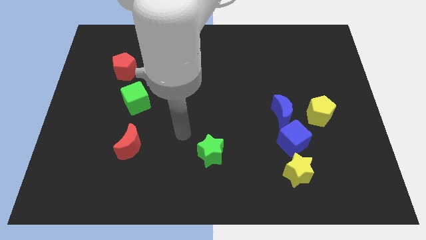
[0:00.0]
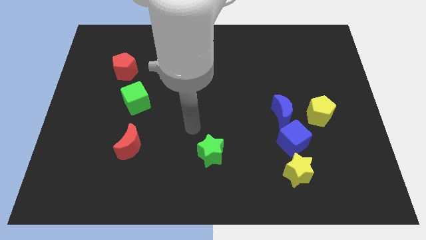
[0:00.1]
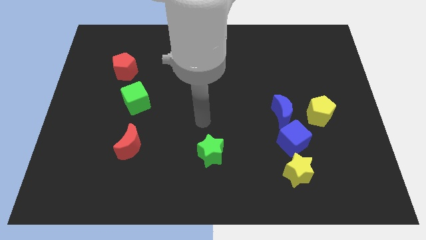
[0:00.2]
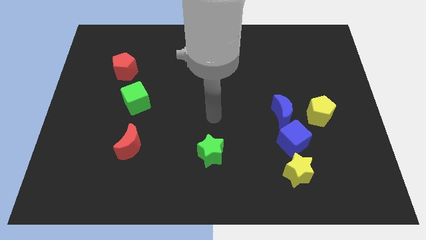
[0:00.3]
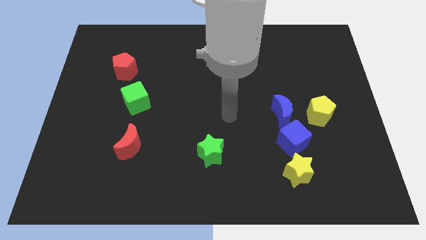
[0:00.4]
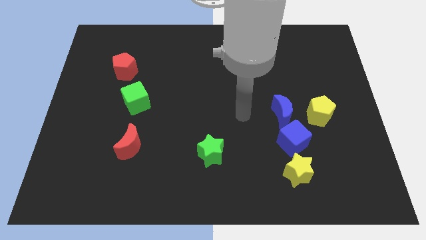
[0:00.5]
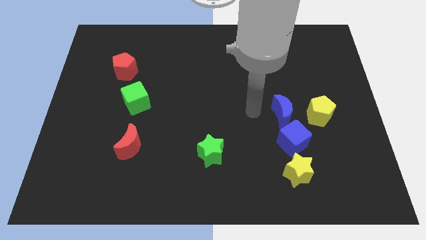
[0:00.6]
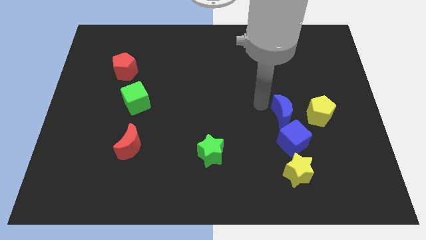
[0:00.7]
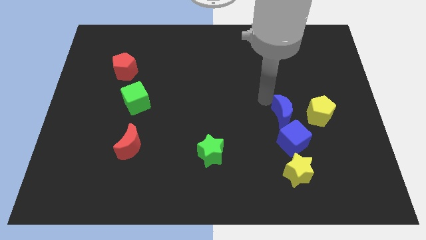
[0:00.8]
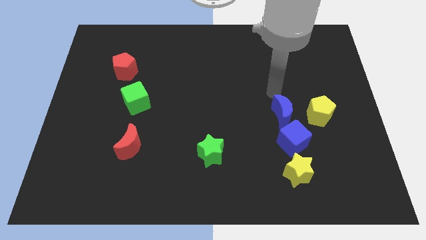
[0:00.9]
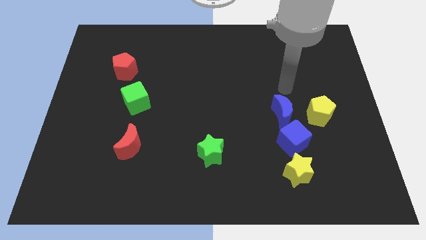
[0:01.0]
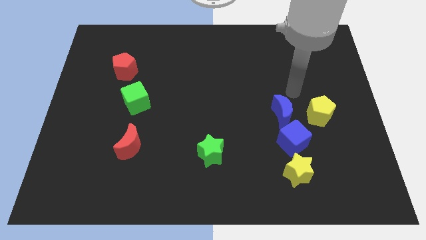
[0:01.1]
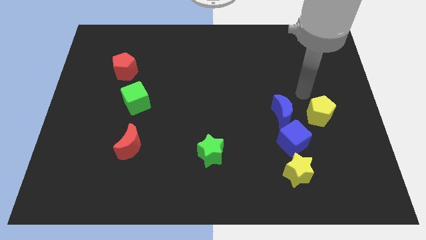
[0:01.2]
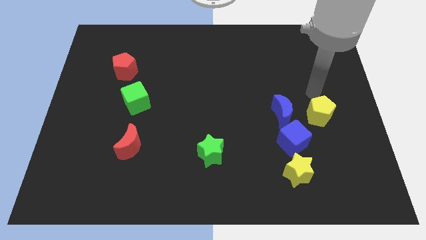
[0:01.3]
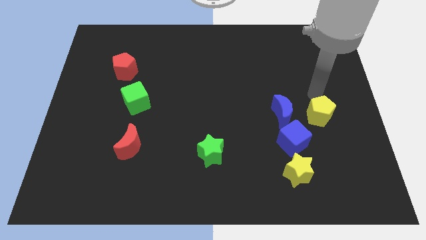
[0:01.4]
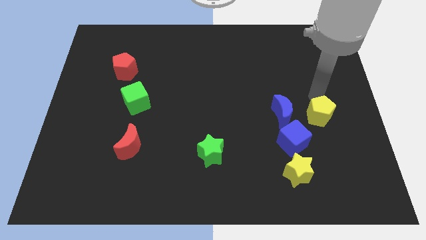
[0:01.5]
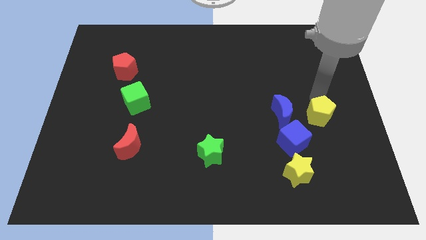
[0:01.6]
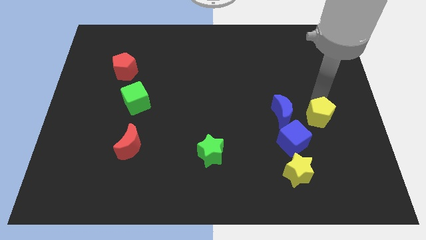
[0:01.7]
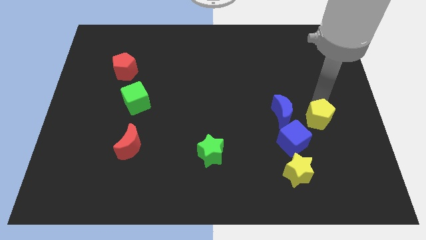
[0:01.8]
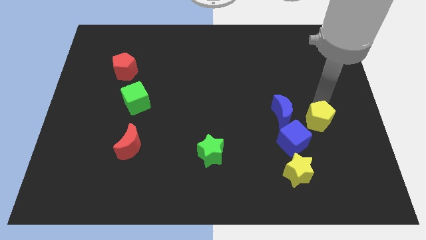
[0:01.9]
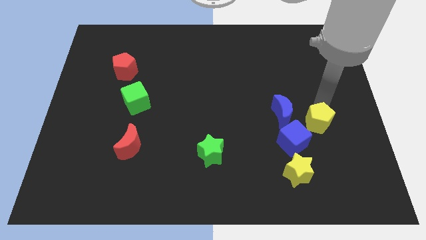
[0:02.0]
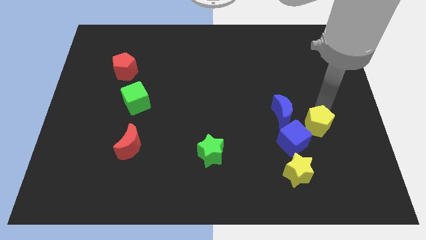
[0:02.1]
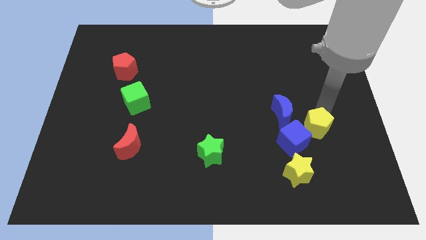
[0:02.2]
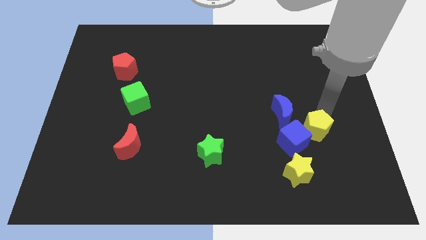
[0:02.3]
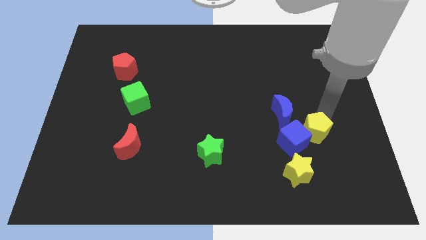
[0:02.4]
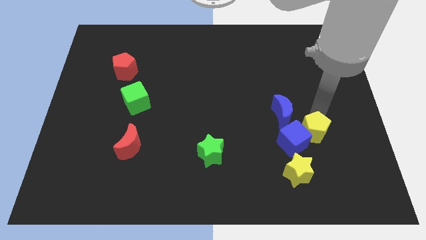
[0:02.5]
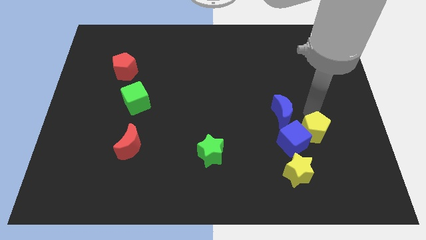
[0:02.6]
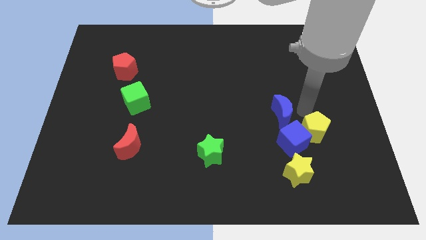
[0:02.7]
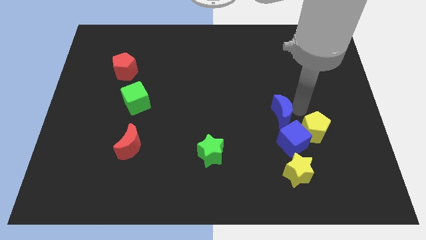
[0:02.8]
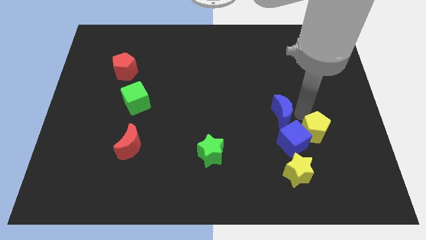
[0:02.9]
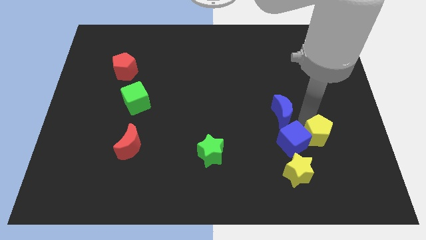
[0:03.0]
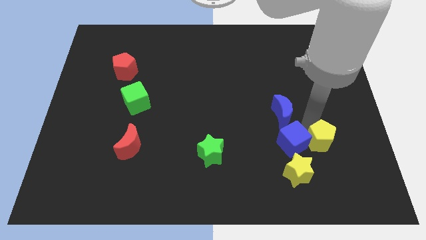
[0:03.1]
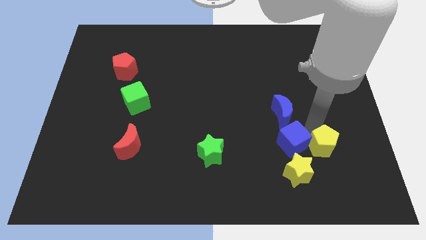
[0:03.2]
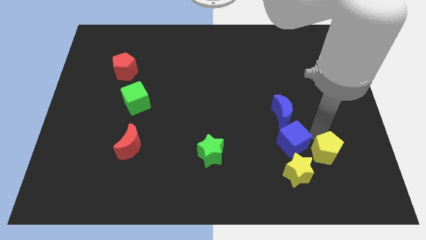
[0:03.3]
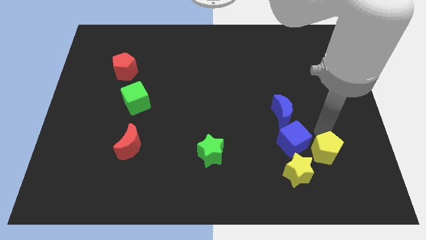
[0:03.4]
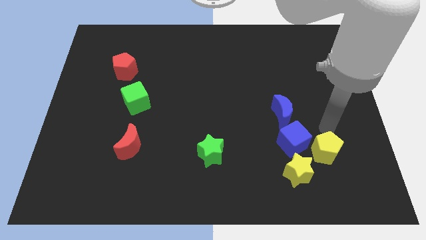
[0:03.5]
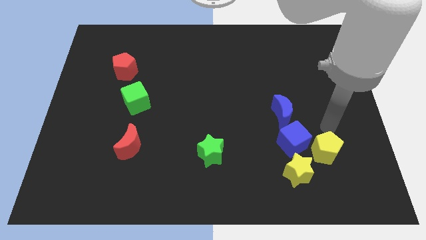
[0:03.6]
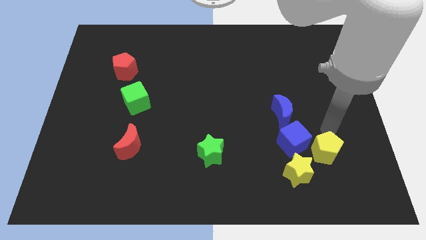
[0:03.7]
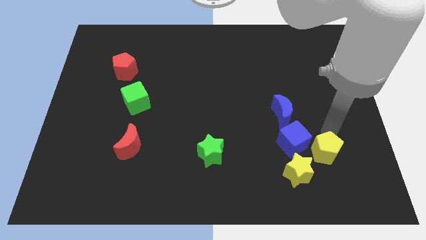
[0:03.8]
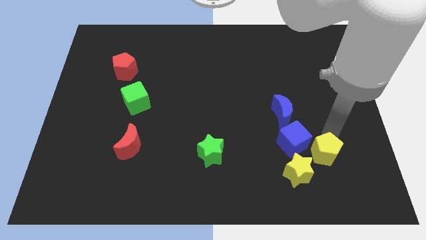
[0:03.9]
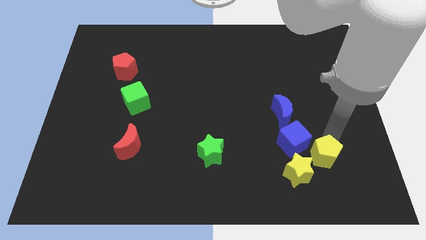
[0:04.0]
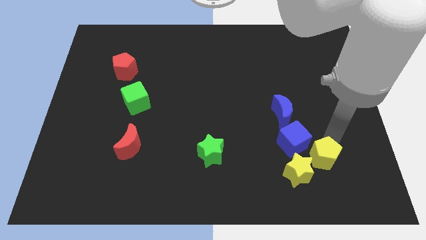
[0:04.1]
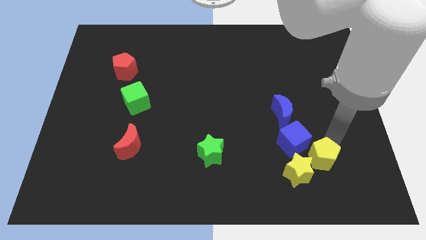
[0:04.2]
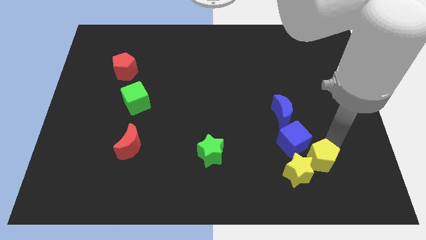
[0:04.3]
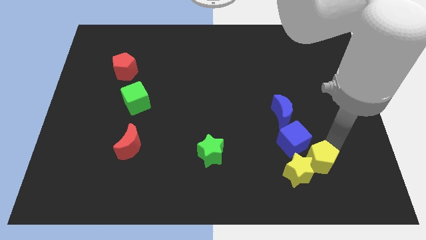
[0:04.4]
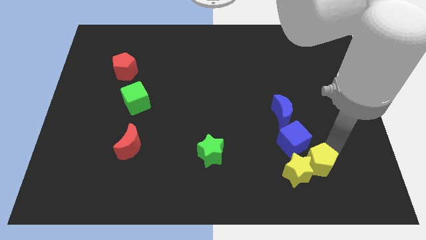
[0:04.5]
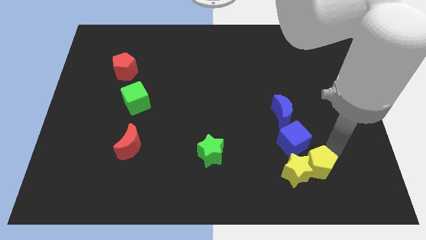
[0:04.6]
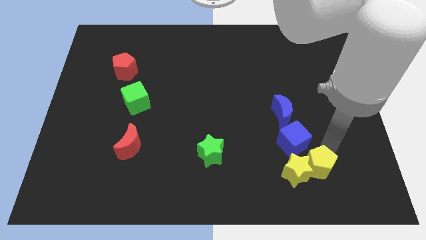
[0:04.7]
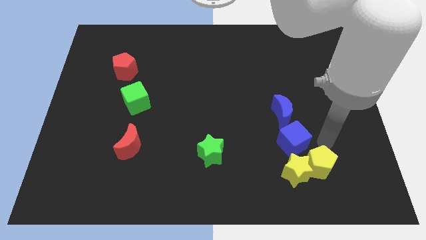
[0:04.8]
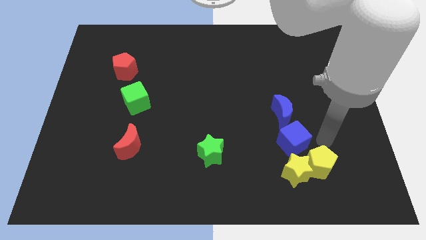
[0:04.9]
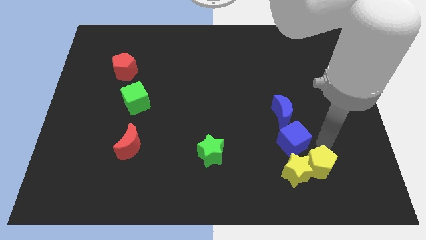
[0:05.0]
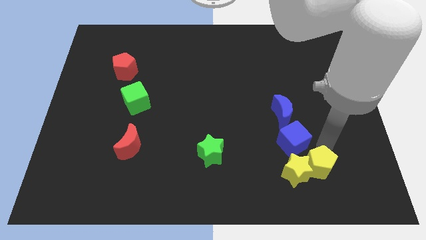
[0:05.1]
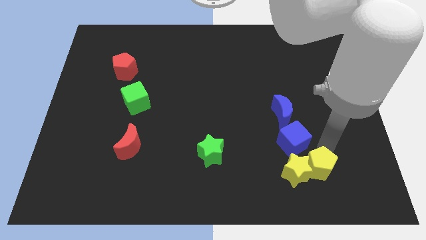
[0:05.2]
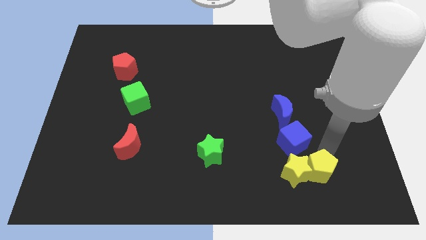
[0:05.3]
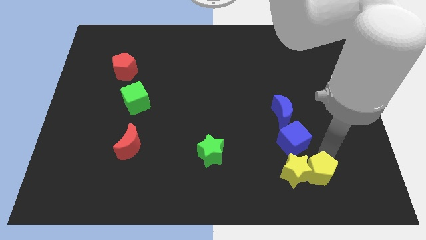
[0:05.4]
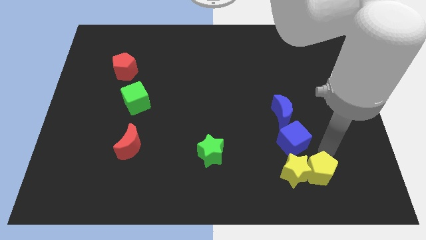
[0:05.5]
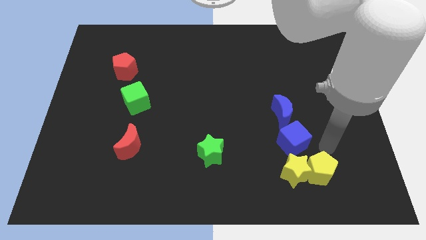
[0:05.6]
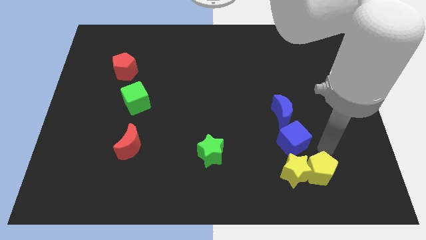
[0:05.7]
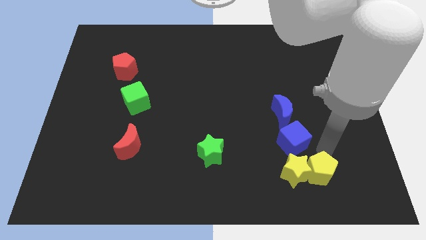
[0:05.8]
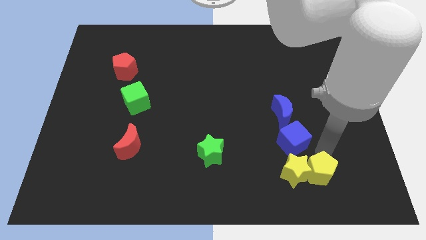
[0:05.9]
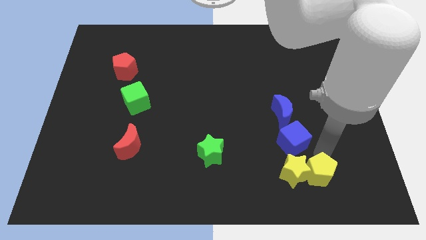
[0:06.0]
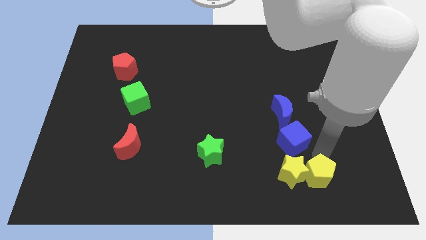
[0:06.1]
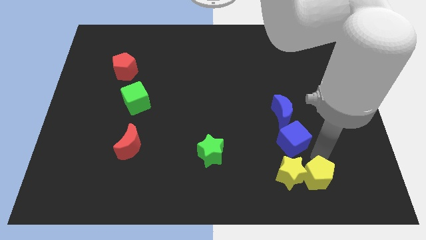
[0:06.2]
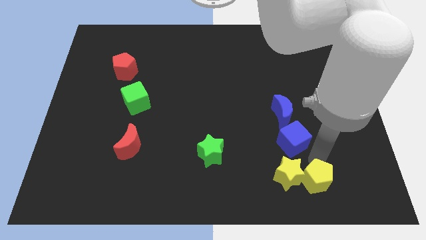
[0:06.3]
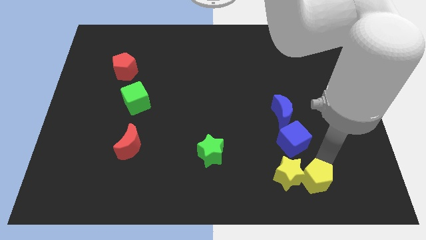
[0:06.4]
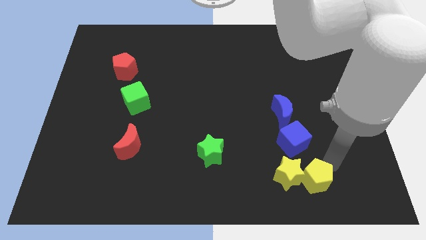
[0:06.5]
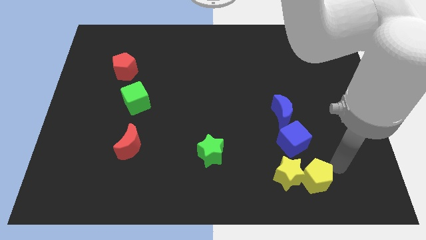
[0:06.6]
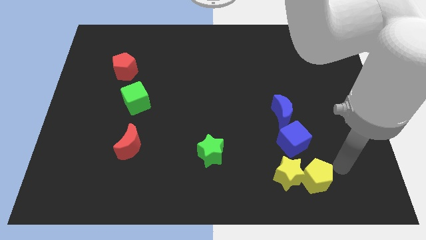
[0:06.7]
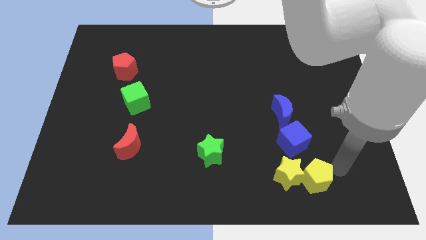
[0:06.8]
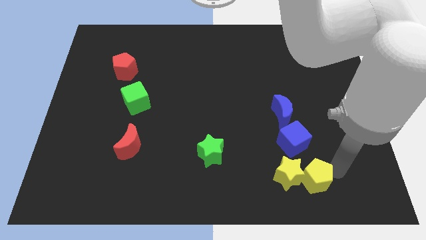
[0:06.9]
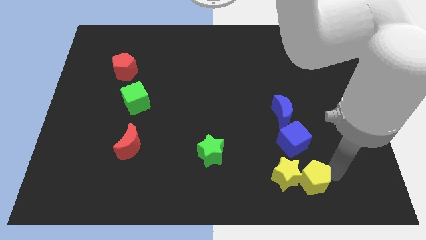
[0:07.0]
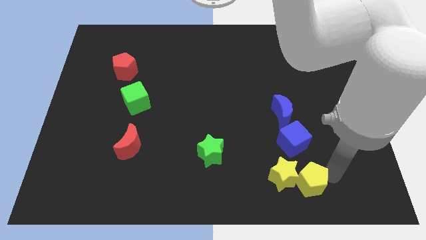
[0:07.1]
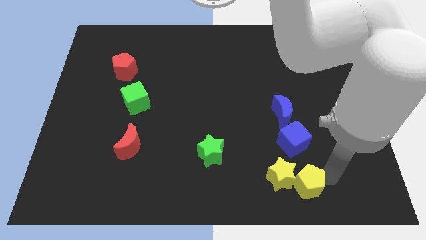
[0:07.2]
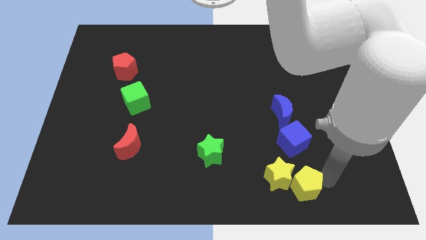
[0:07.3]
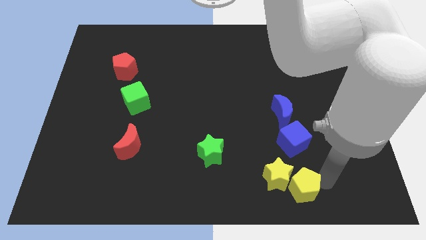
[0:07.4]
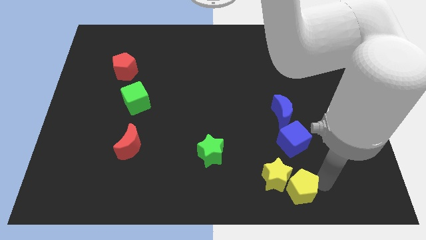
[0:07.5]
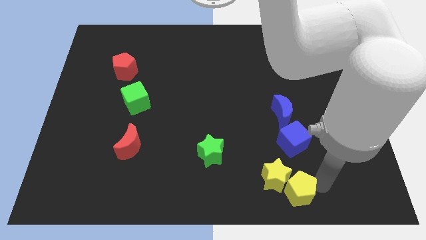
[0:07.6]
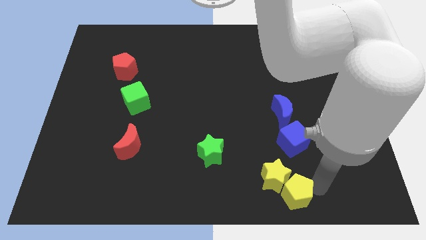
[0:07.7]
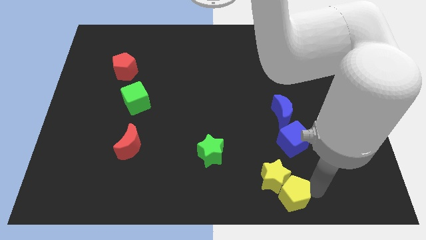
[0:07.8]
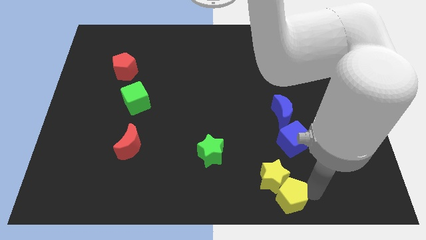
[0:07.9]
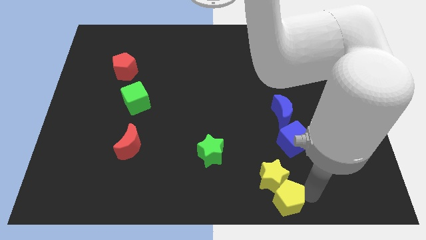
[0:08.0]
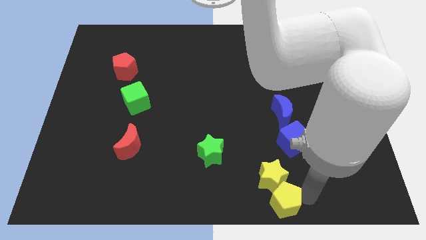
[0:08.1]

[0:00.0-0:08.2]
put the yellow pentagon to the bottom side

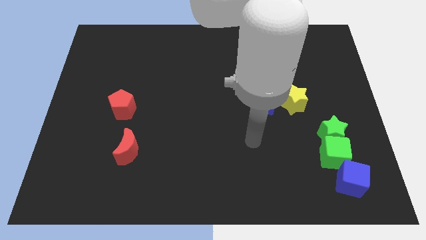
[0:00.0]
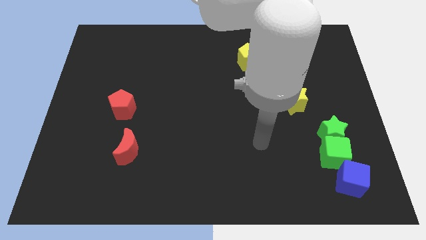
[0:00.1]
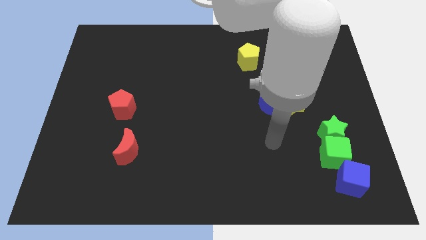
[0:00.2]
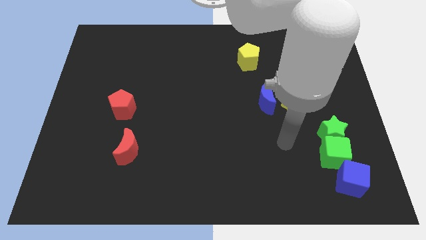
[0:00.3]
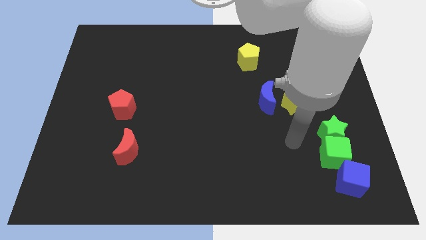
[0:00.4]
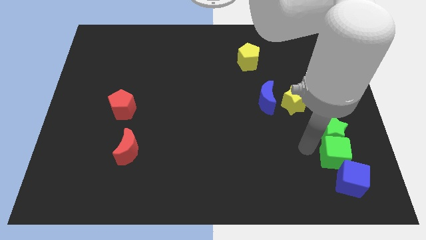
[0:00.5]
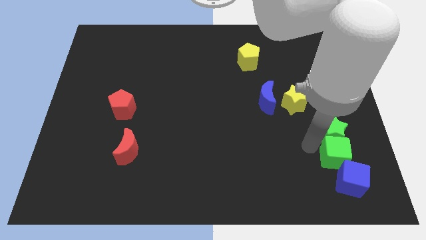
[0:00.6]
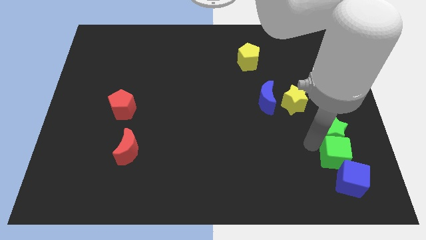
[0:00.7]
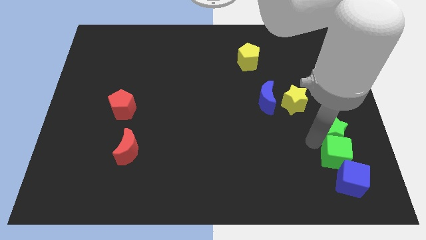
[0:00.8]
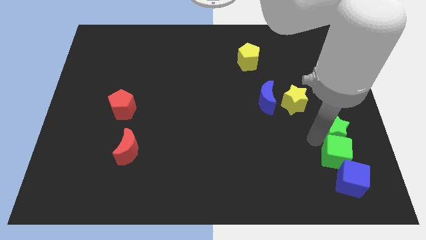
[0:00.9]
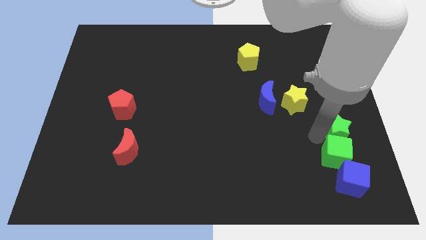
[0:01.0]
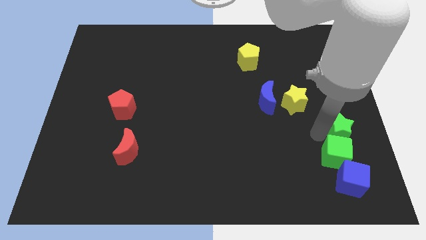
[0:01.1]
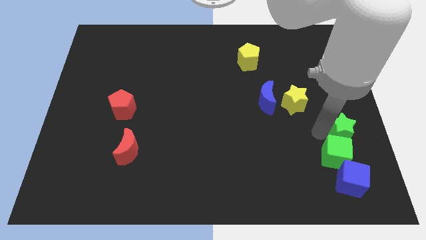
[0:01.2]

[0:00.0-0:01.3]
slide the green star to the right side of the board
